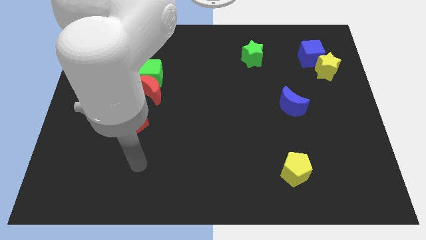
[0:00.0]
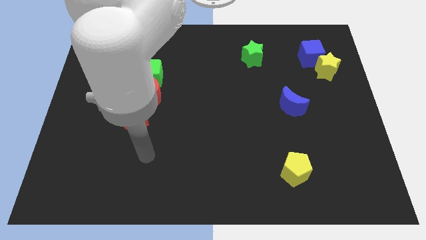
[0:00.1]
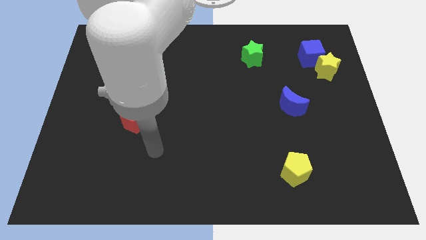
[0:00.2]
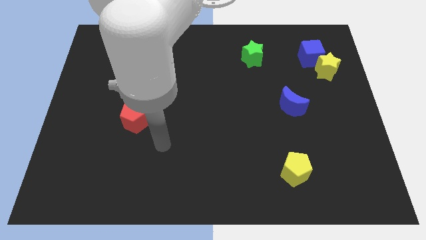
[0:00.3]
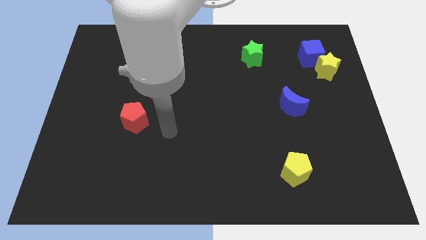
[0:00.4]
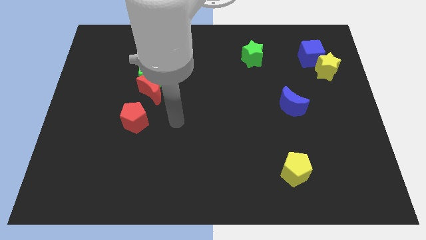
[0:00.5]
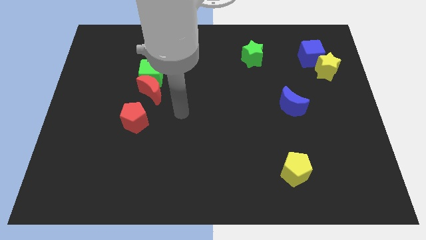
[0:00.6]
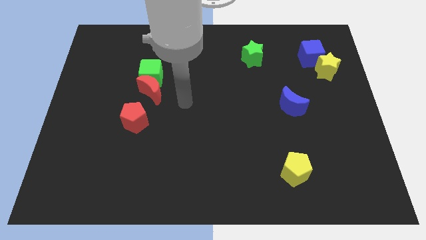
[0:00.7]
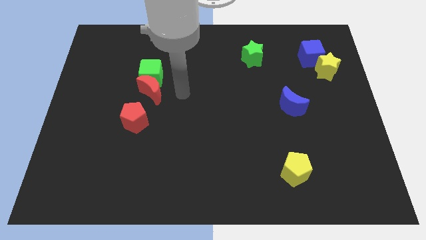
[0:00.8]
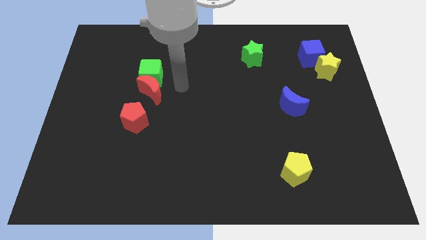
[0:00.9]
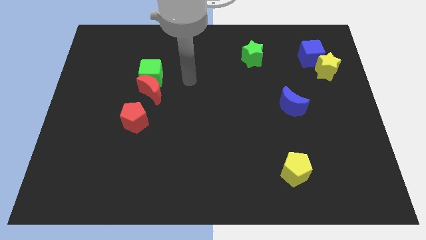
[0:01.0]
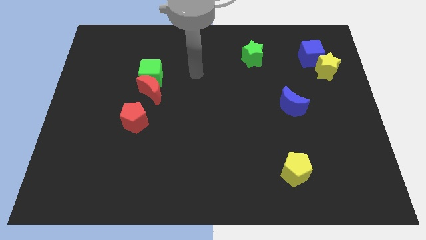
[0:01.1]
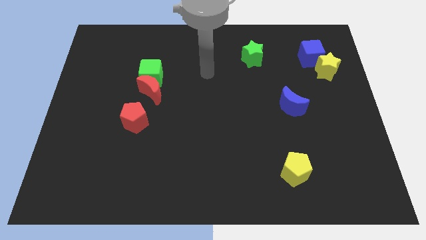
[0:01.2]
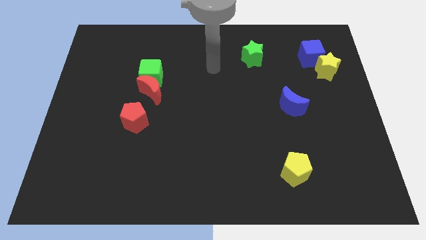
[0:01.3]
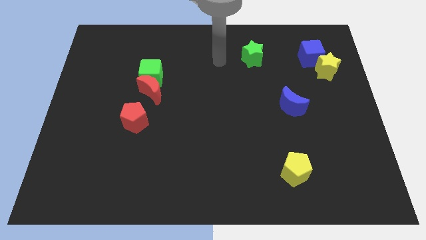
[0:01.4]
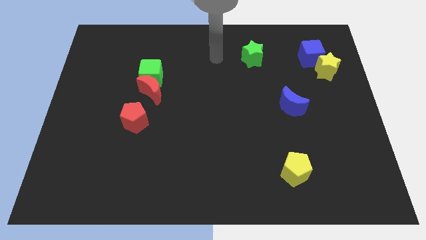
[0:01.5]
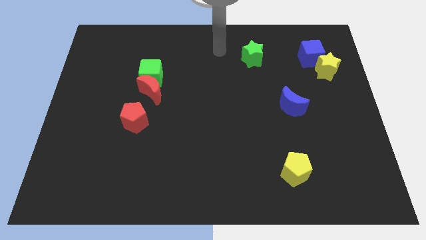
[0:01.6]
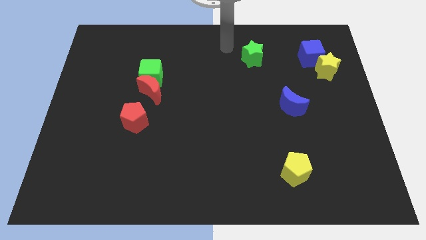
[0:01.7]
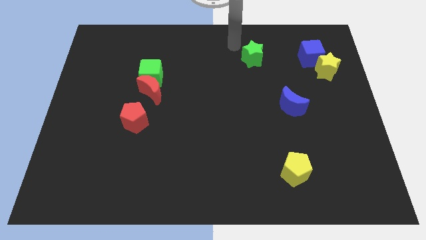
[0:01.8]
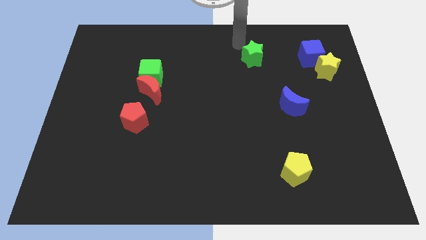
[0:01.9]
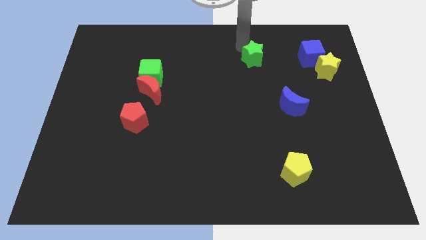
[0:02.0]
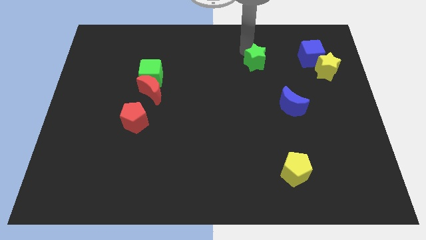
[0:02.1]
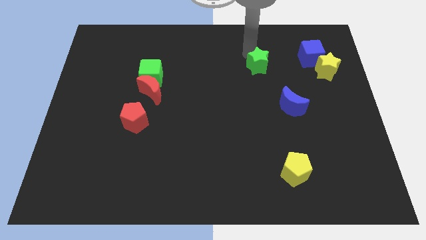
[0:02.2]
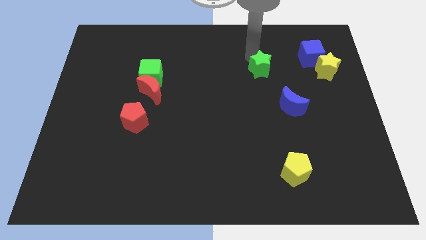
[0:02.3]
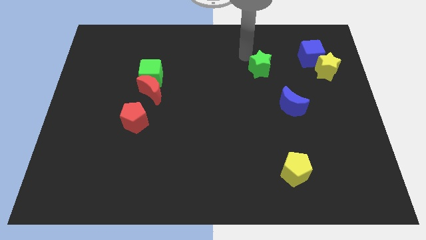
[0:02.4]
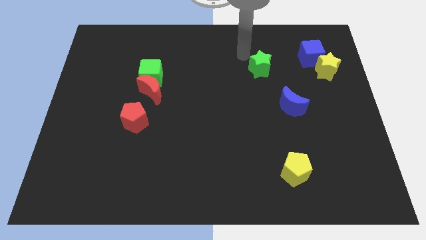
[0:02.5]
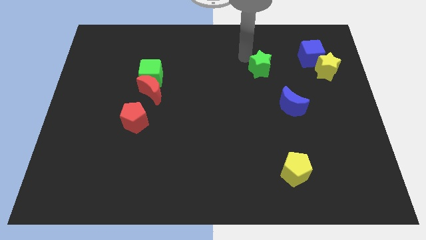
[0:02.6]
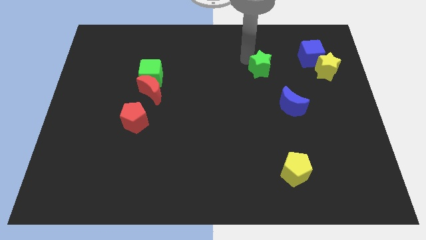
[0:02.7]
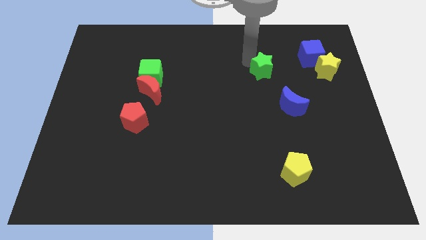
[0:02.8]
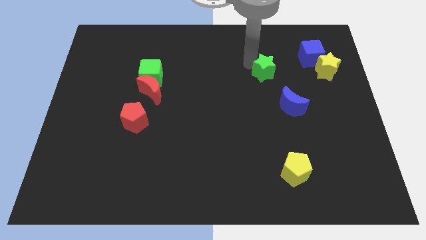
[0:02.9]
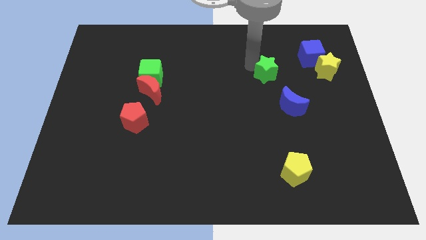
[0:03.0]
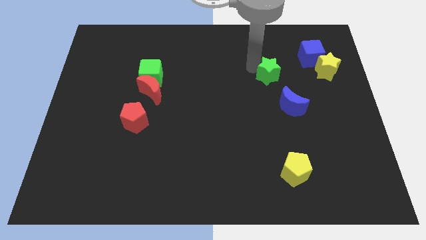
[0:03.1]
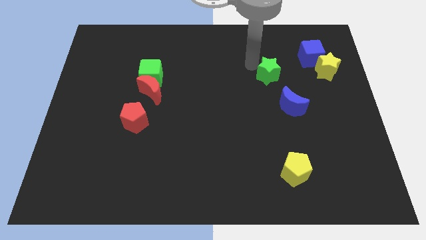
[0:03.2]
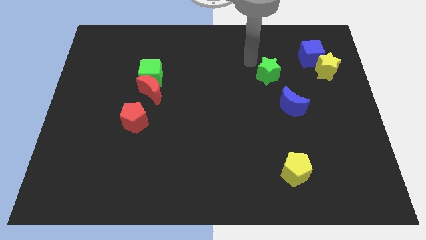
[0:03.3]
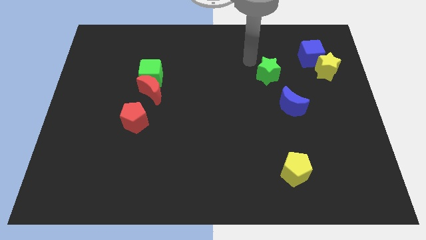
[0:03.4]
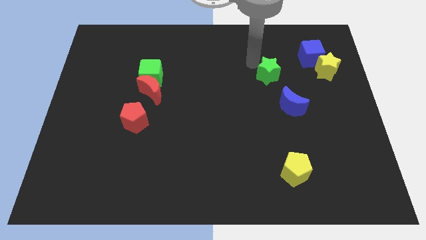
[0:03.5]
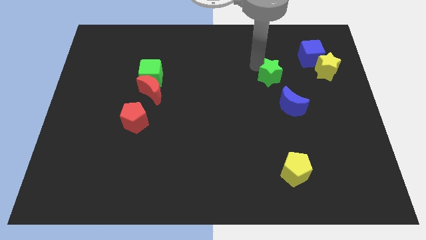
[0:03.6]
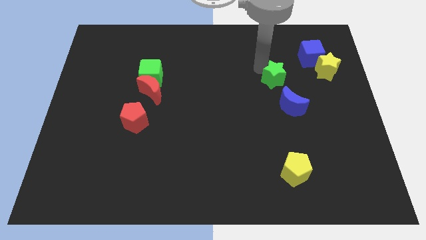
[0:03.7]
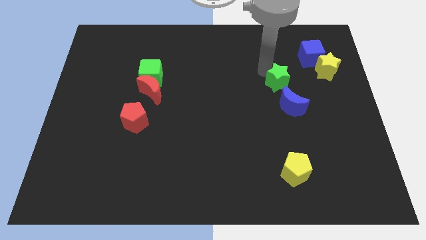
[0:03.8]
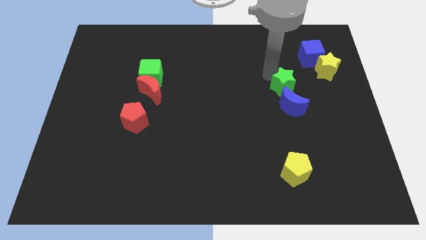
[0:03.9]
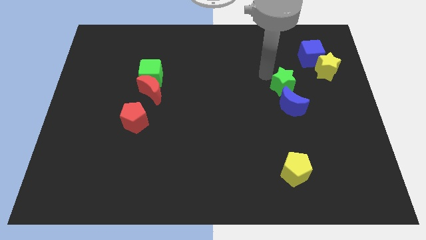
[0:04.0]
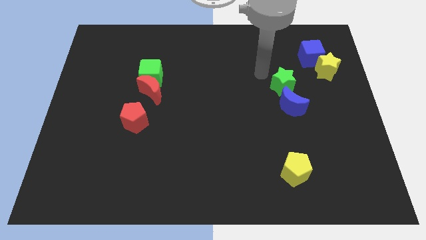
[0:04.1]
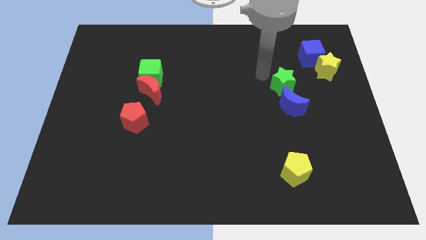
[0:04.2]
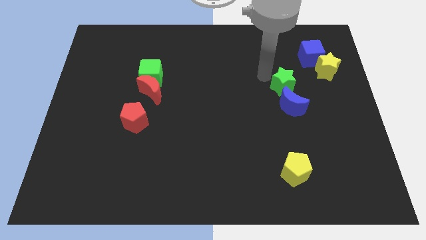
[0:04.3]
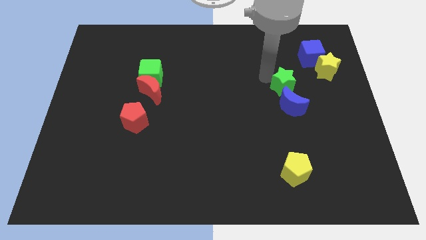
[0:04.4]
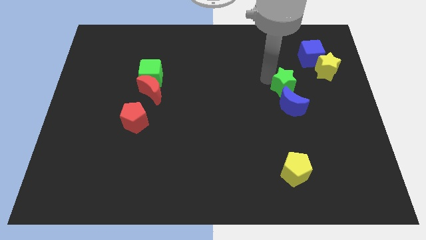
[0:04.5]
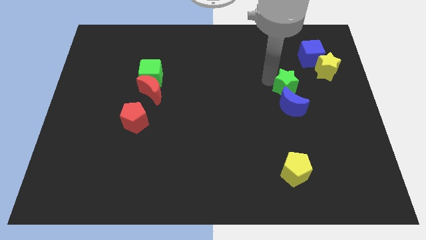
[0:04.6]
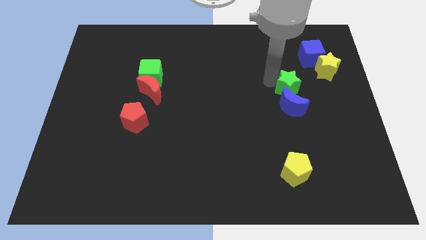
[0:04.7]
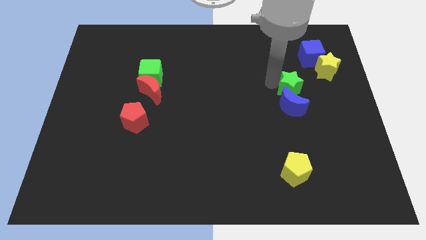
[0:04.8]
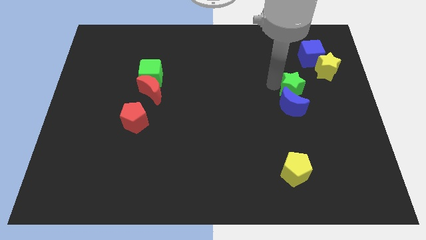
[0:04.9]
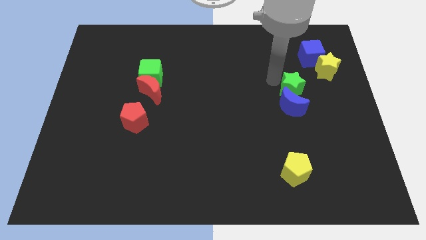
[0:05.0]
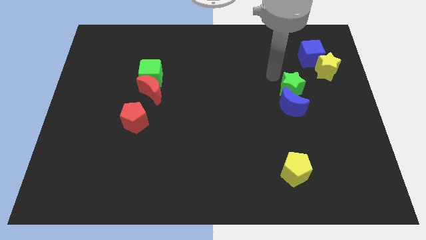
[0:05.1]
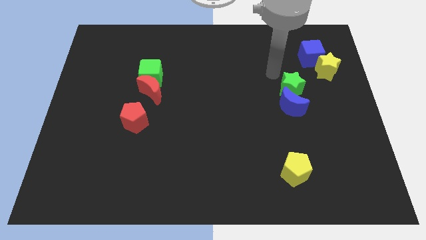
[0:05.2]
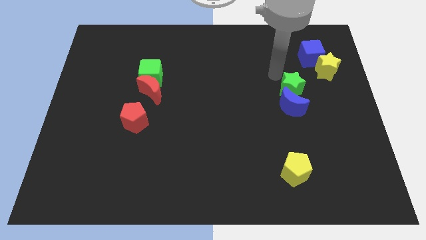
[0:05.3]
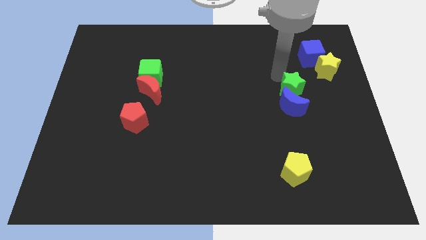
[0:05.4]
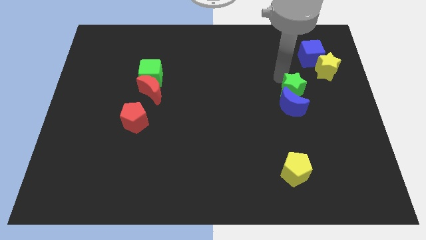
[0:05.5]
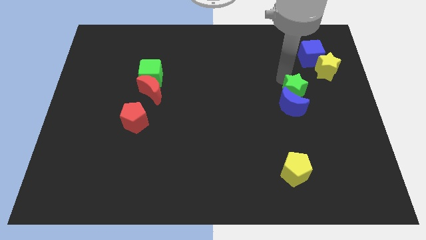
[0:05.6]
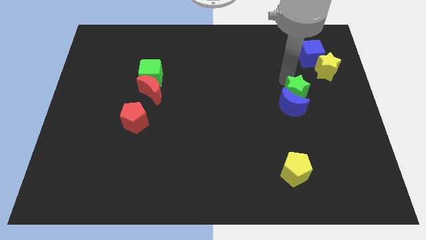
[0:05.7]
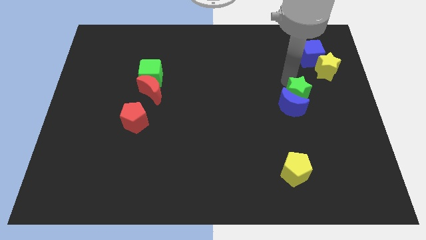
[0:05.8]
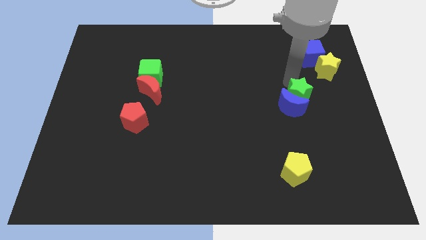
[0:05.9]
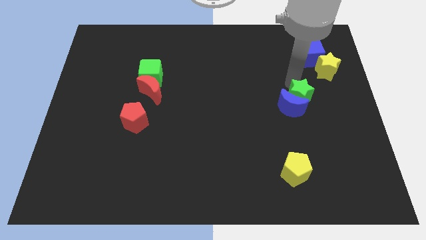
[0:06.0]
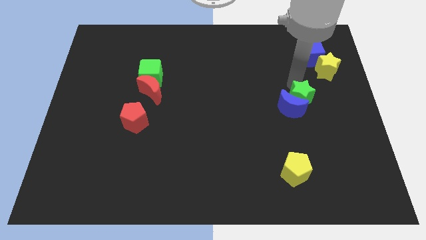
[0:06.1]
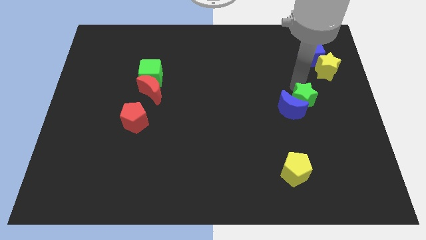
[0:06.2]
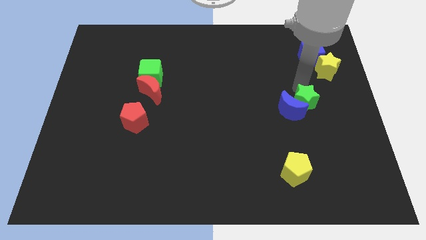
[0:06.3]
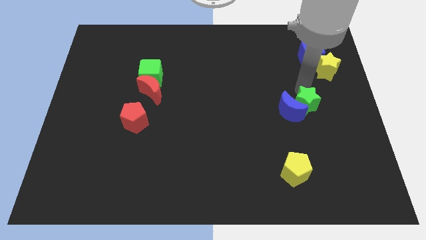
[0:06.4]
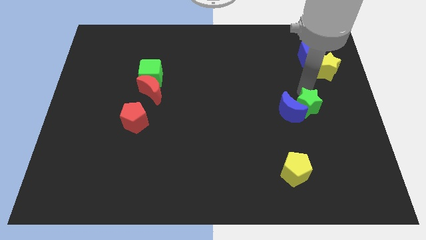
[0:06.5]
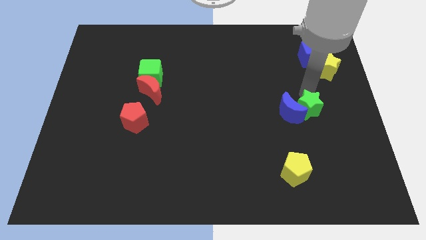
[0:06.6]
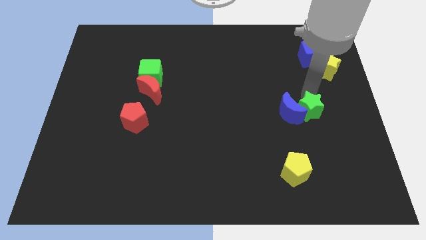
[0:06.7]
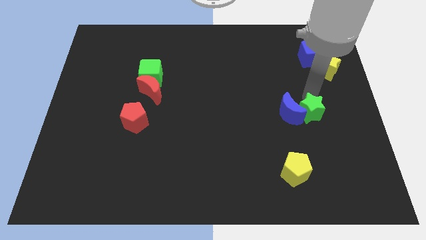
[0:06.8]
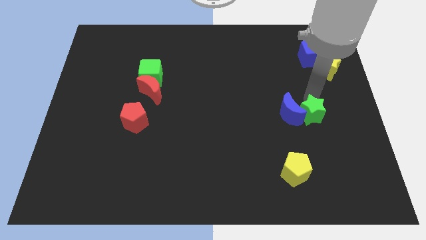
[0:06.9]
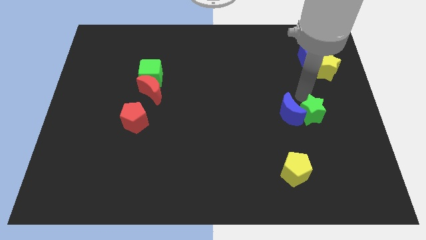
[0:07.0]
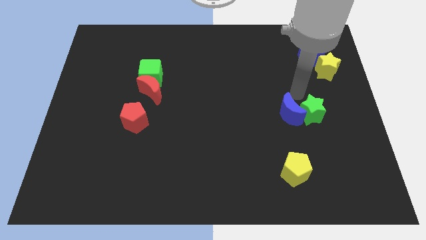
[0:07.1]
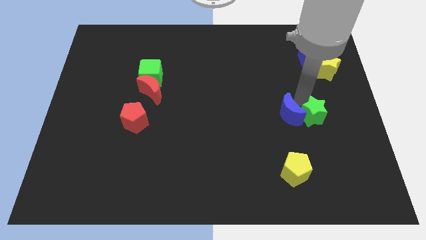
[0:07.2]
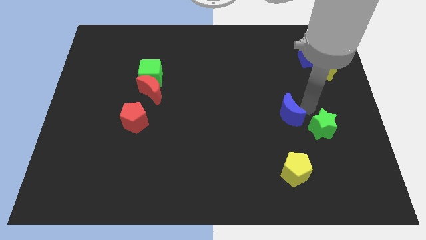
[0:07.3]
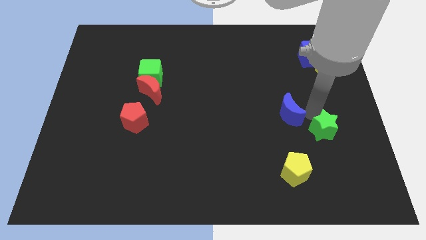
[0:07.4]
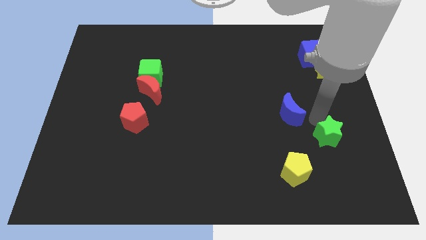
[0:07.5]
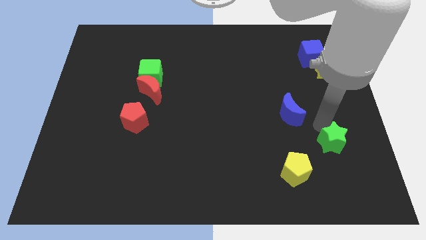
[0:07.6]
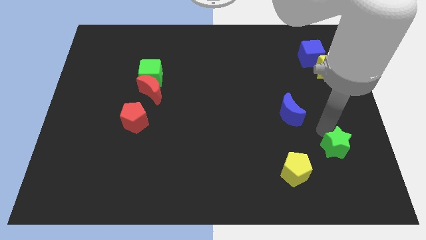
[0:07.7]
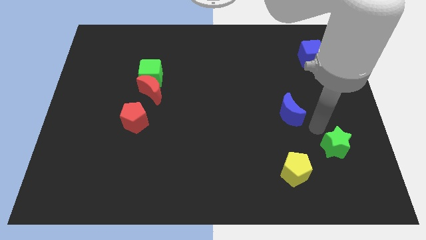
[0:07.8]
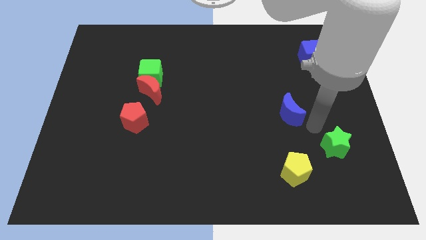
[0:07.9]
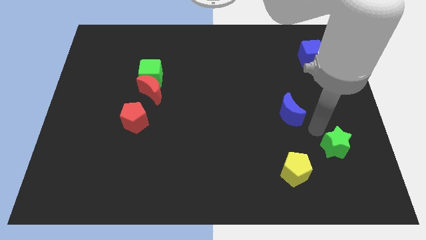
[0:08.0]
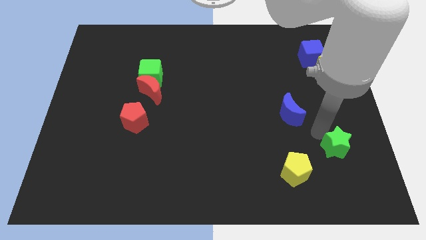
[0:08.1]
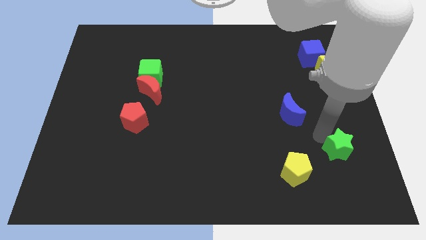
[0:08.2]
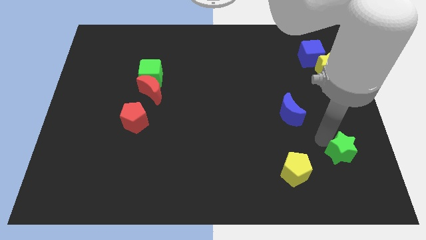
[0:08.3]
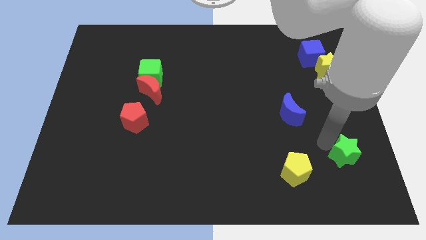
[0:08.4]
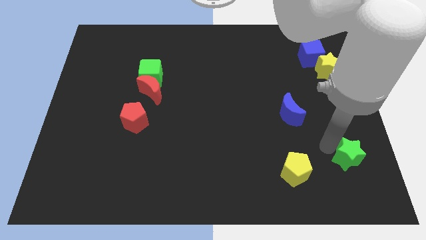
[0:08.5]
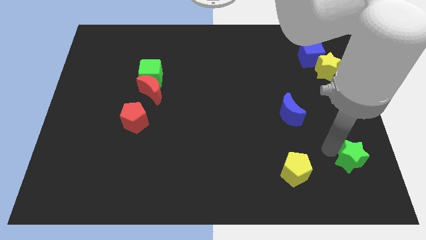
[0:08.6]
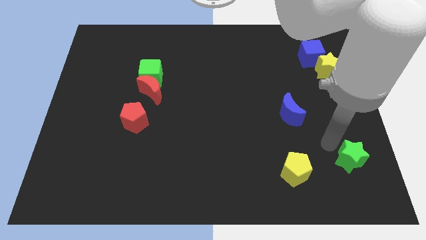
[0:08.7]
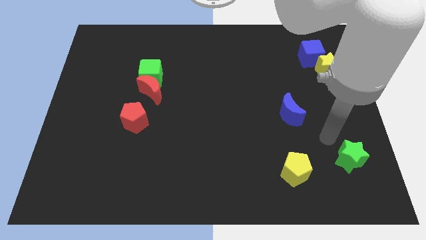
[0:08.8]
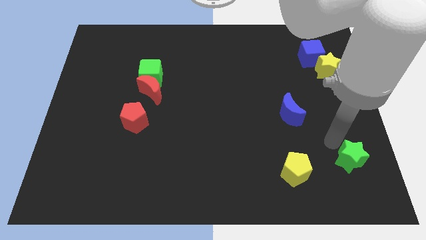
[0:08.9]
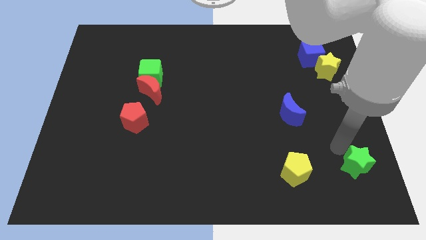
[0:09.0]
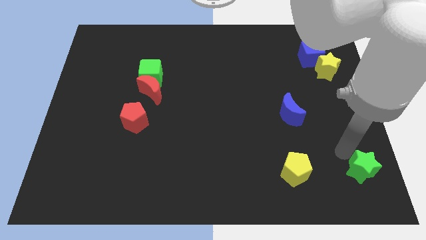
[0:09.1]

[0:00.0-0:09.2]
slide the green star to the bottom right of the board
